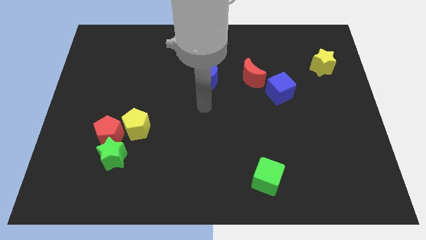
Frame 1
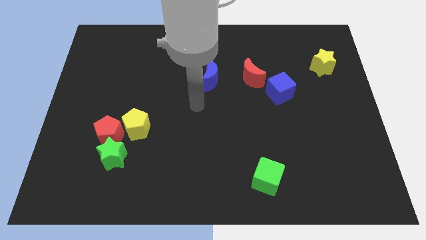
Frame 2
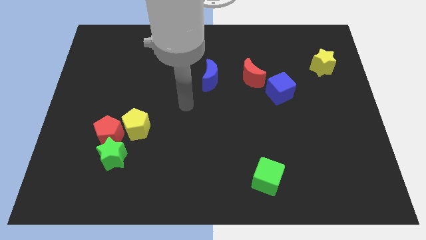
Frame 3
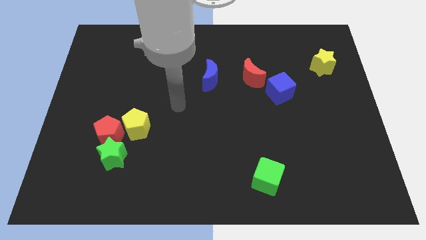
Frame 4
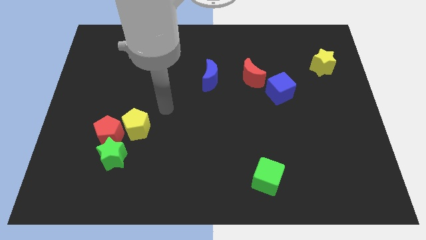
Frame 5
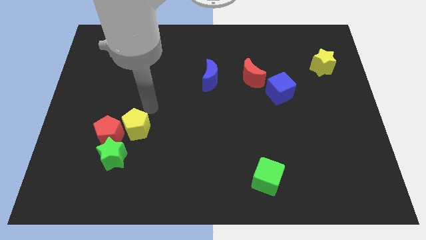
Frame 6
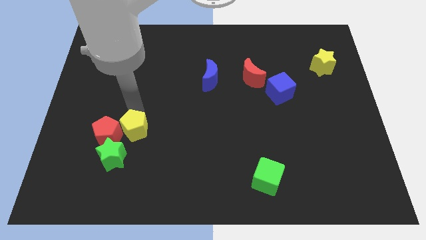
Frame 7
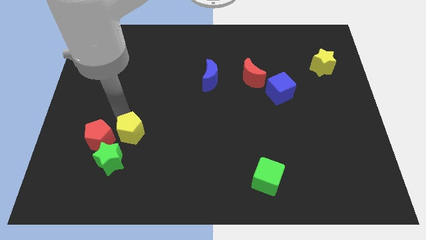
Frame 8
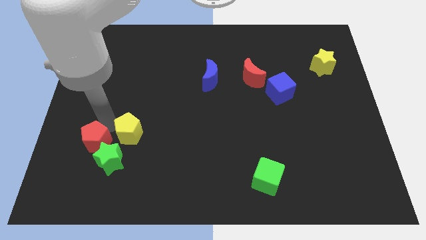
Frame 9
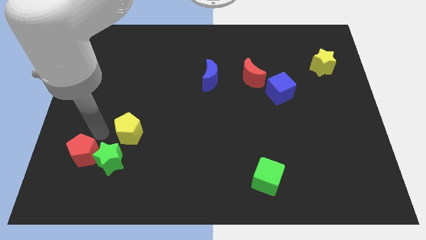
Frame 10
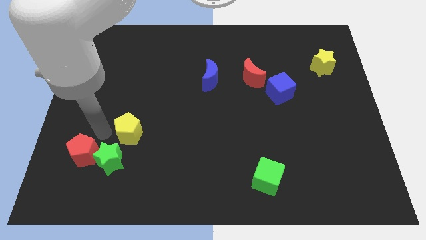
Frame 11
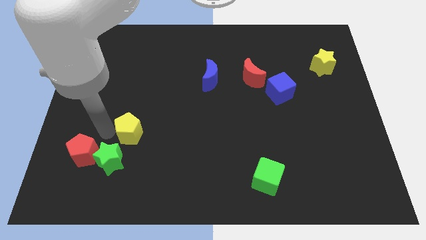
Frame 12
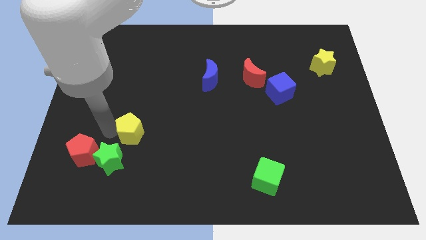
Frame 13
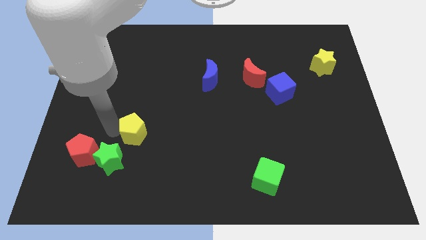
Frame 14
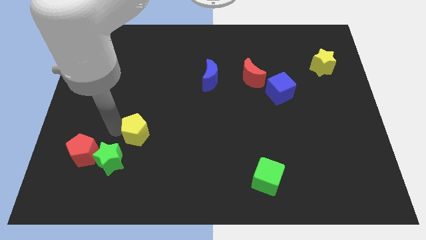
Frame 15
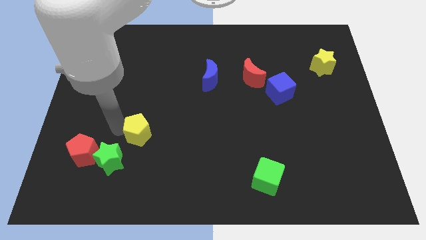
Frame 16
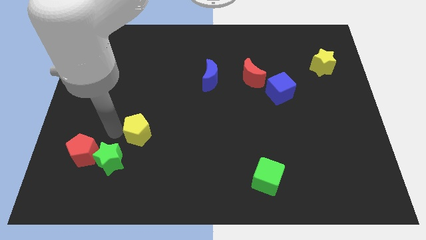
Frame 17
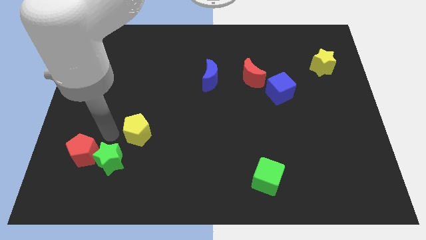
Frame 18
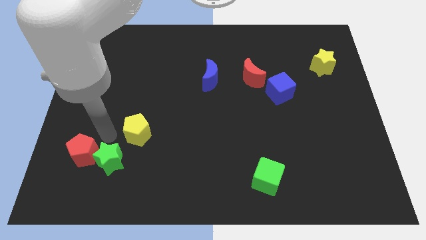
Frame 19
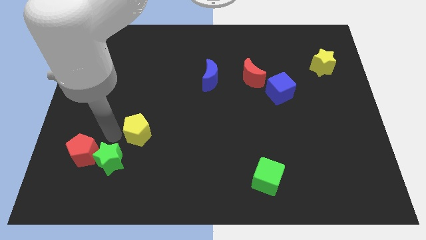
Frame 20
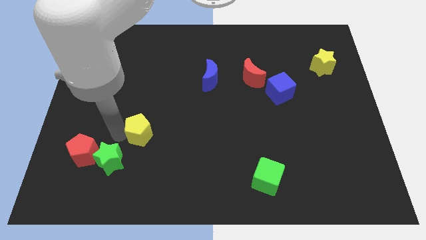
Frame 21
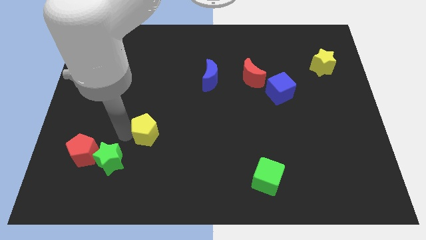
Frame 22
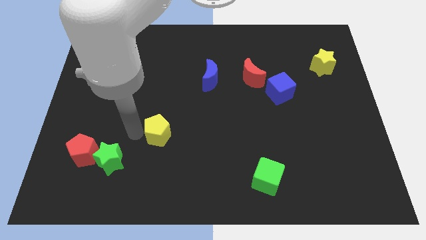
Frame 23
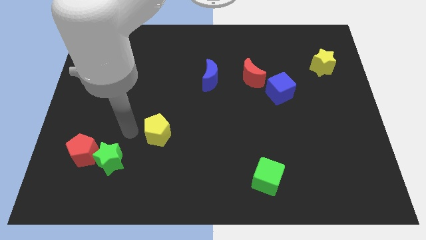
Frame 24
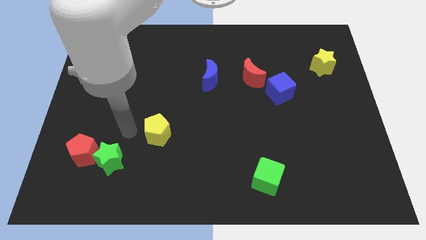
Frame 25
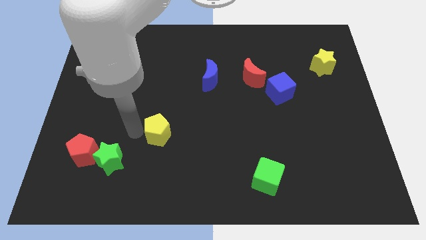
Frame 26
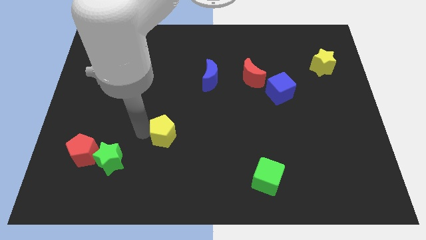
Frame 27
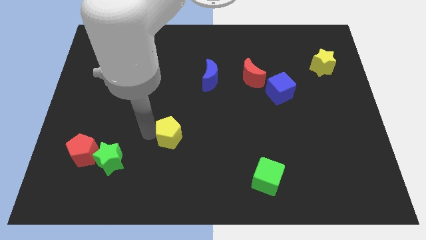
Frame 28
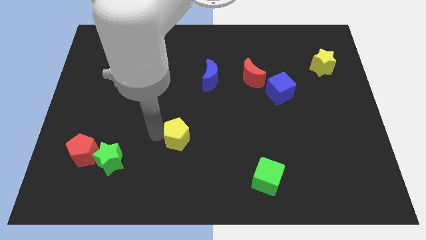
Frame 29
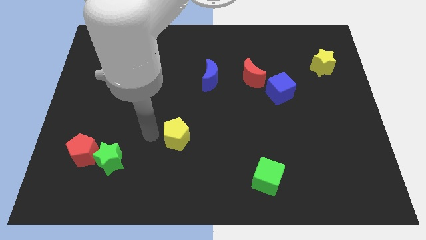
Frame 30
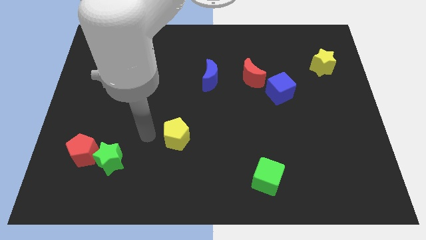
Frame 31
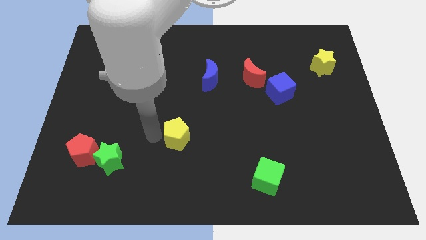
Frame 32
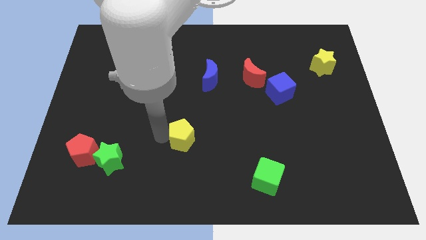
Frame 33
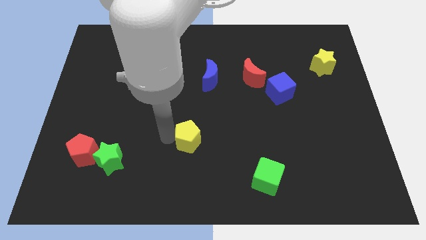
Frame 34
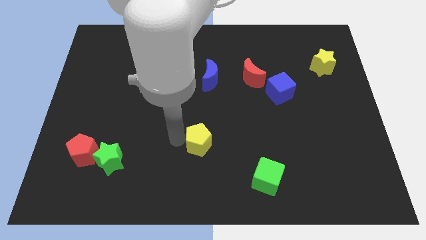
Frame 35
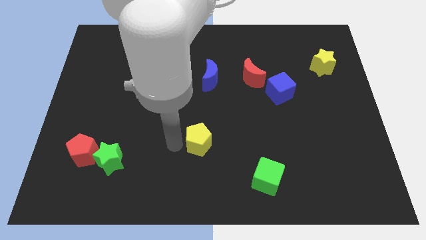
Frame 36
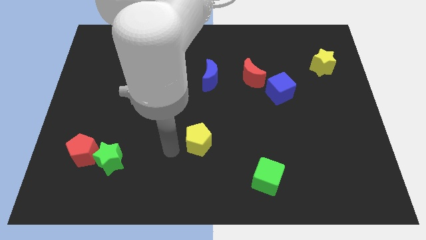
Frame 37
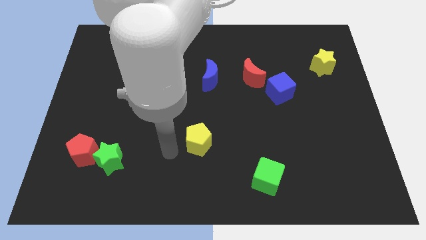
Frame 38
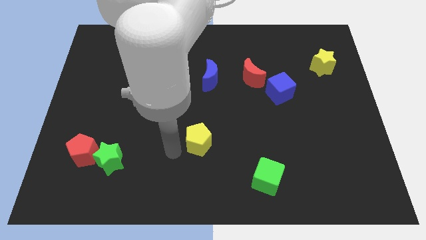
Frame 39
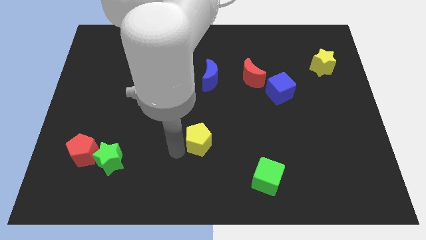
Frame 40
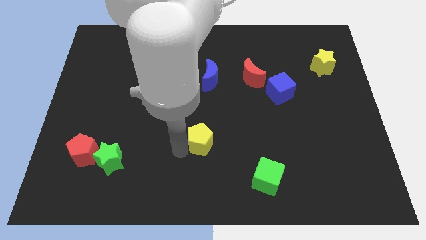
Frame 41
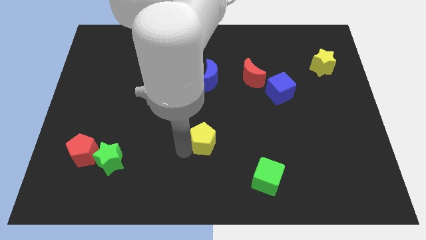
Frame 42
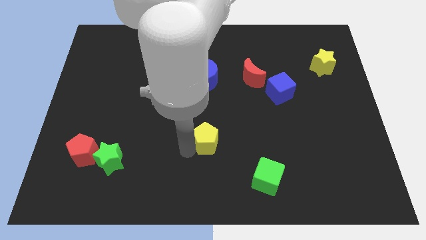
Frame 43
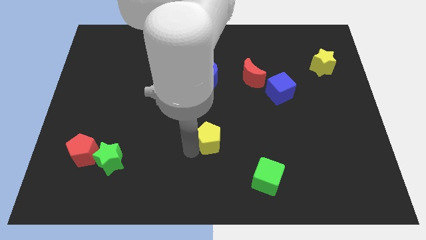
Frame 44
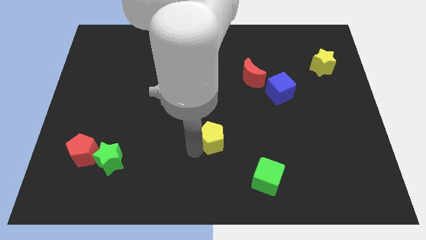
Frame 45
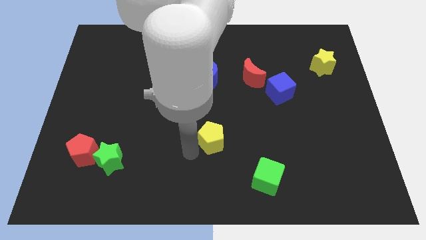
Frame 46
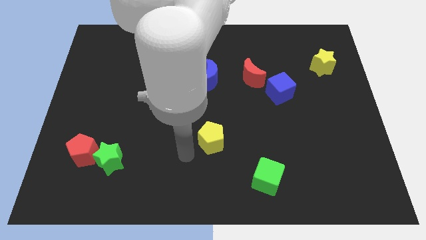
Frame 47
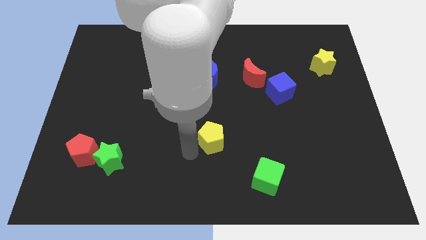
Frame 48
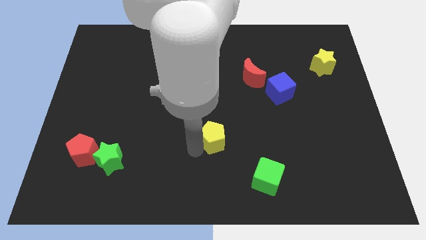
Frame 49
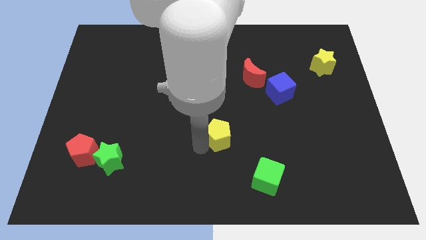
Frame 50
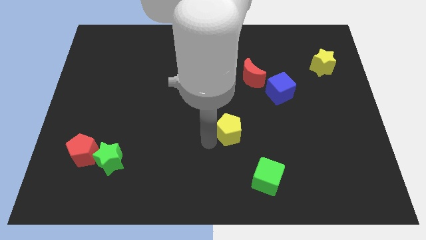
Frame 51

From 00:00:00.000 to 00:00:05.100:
slide the yellow pentagon to the right

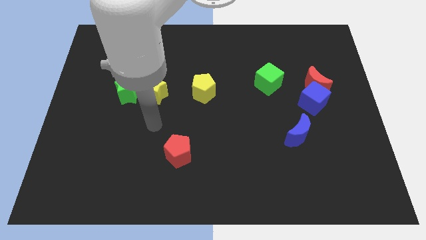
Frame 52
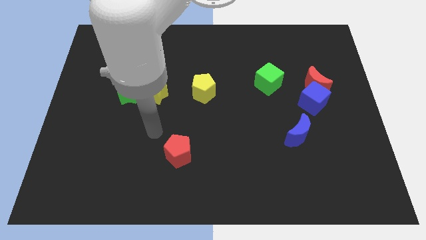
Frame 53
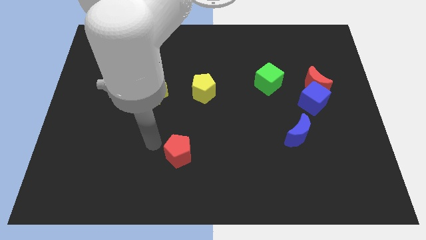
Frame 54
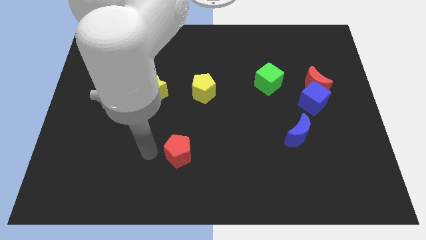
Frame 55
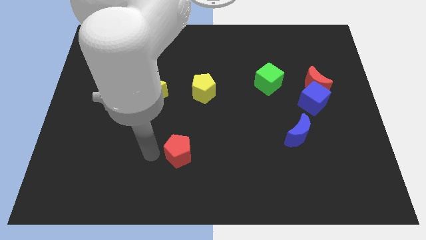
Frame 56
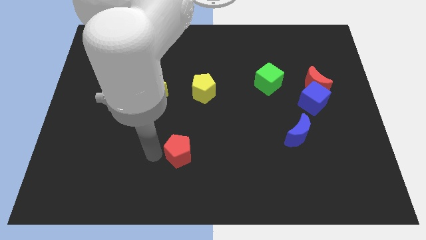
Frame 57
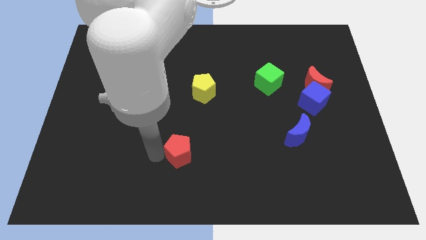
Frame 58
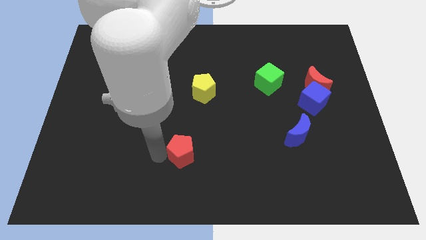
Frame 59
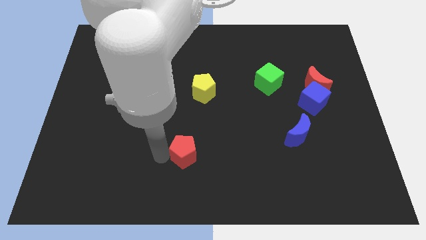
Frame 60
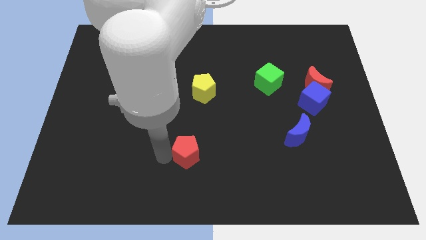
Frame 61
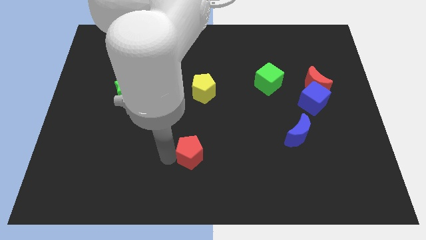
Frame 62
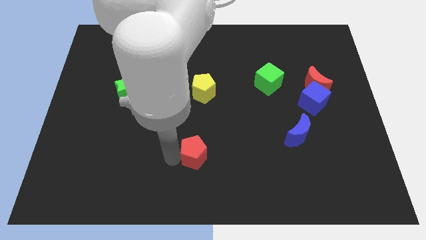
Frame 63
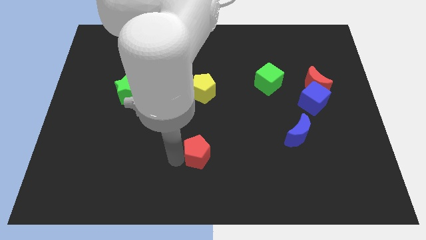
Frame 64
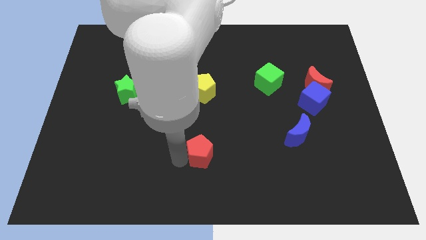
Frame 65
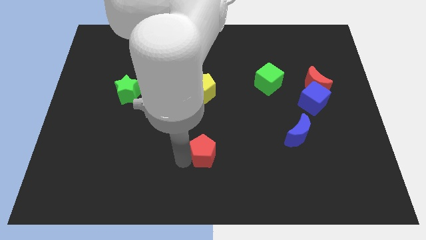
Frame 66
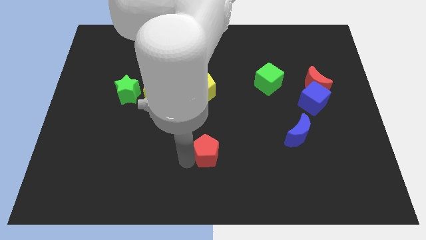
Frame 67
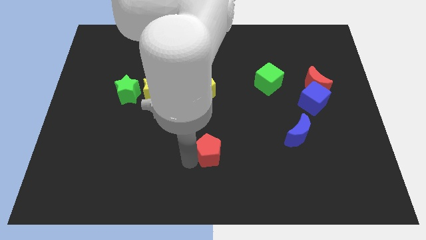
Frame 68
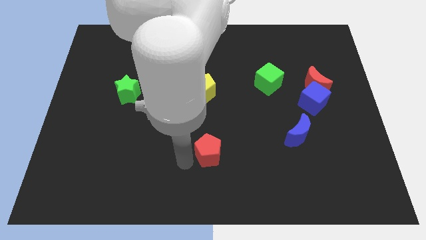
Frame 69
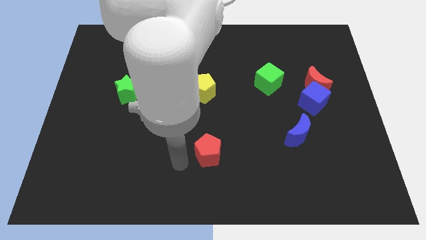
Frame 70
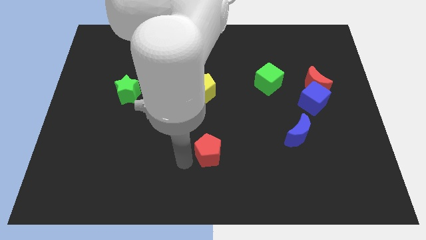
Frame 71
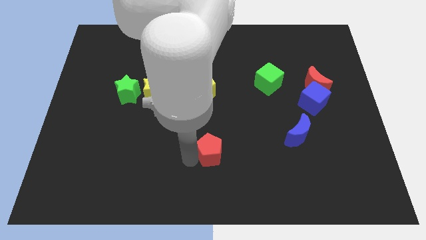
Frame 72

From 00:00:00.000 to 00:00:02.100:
push the red pentagon a little to the right

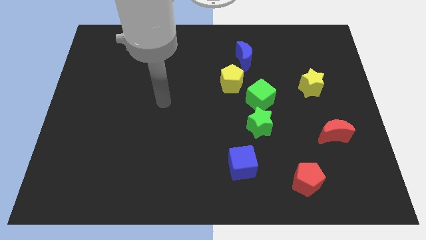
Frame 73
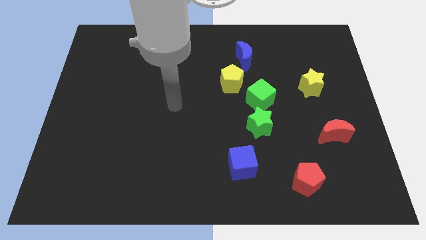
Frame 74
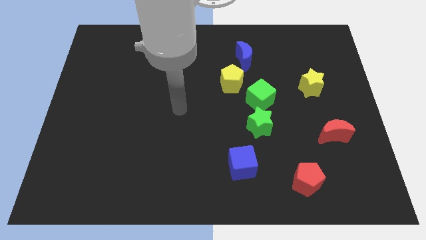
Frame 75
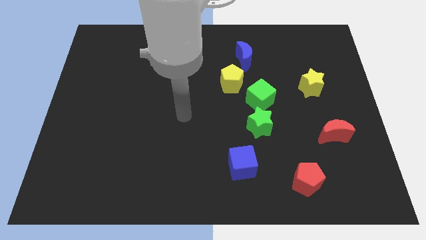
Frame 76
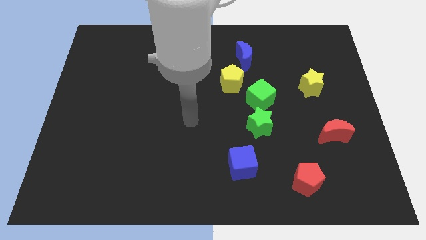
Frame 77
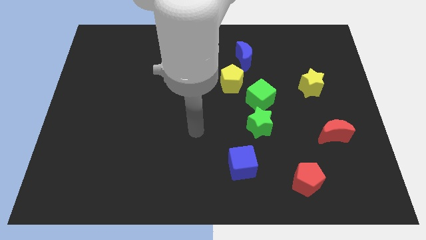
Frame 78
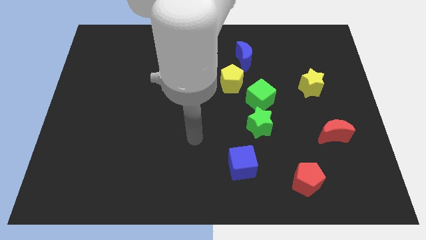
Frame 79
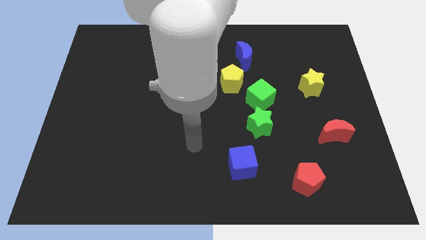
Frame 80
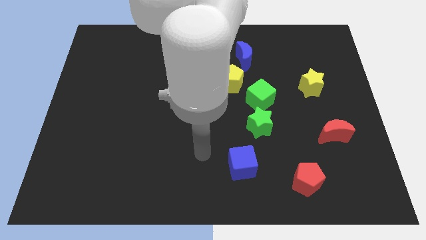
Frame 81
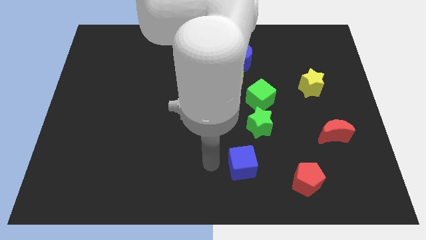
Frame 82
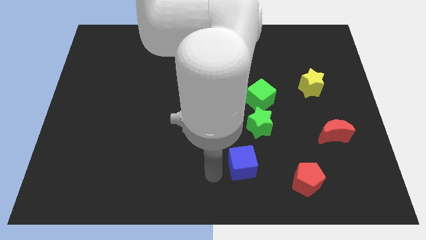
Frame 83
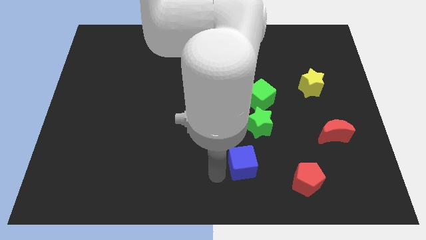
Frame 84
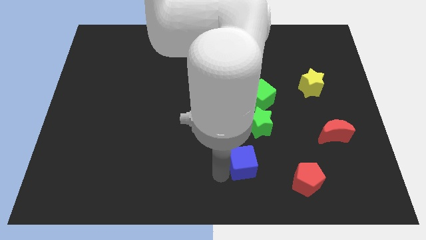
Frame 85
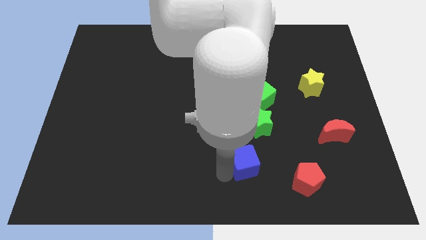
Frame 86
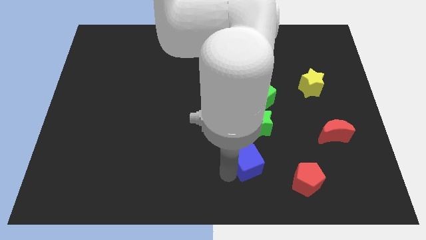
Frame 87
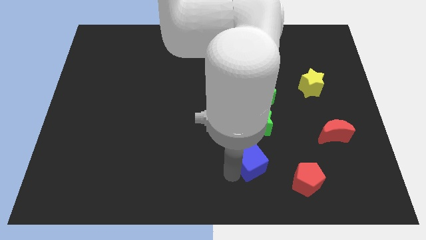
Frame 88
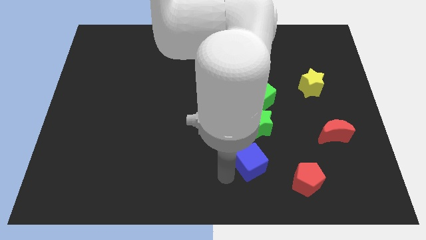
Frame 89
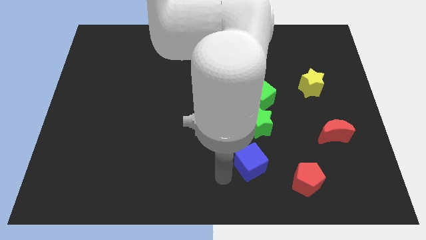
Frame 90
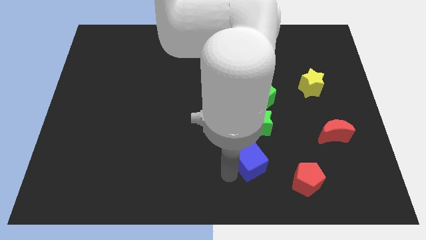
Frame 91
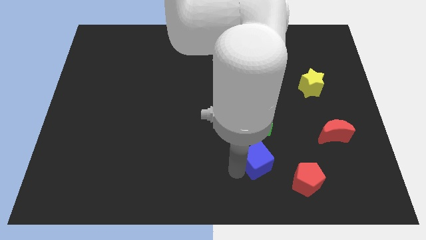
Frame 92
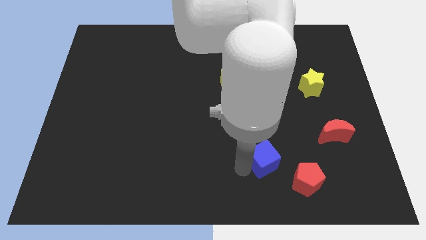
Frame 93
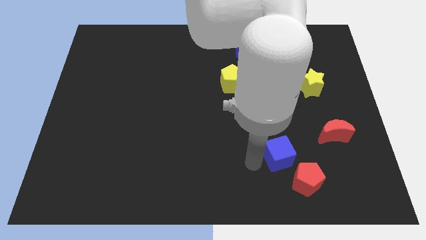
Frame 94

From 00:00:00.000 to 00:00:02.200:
slightly slide the blue cube right
